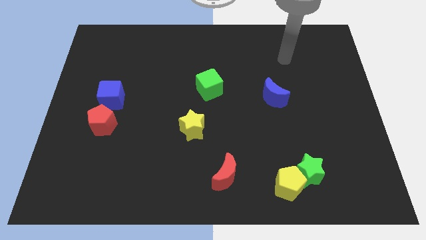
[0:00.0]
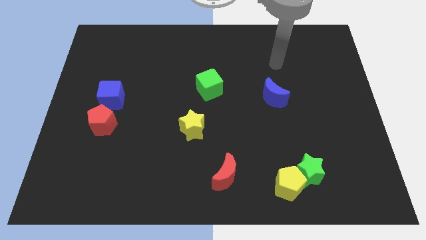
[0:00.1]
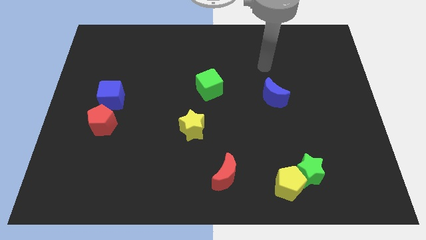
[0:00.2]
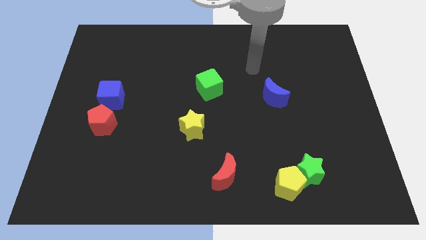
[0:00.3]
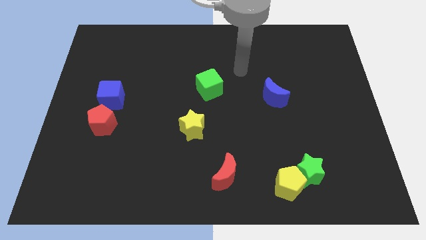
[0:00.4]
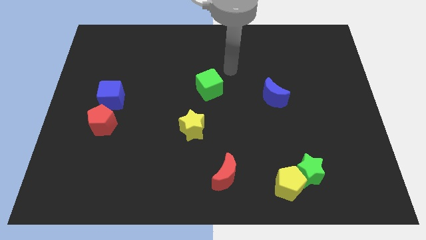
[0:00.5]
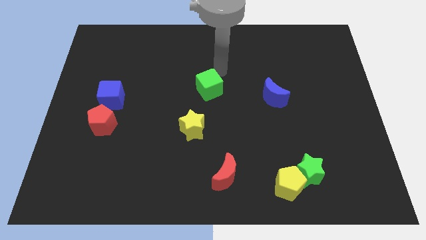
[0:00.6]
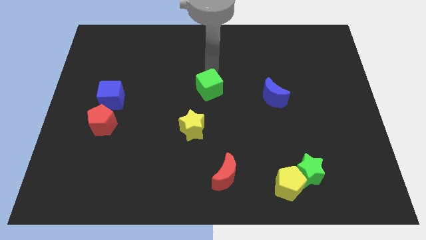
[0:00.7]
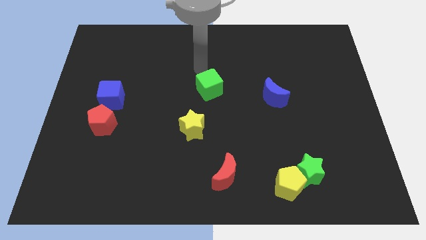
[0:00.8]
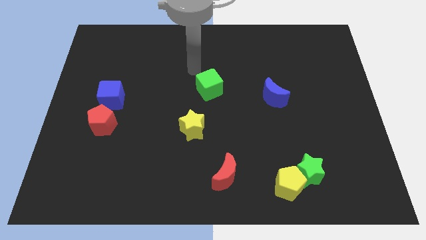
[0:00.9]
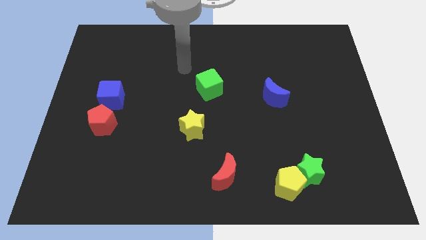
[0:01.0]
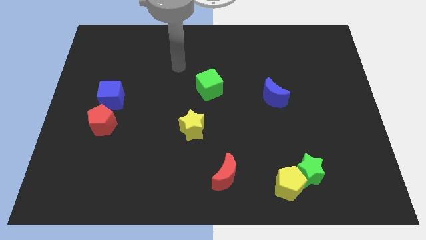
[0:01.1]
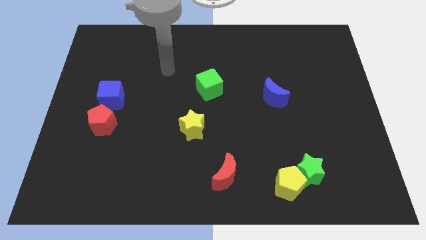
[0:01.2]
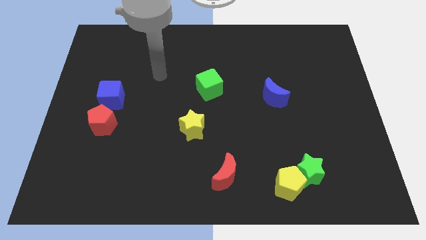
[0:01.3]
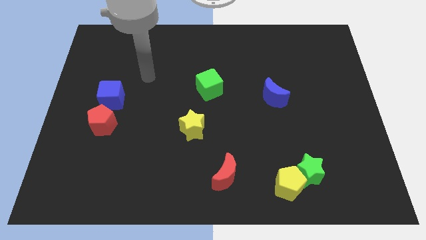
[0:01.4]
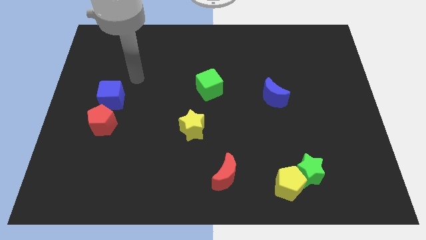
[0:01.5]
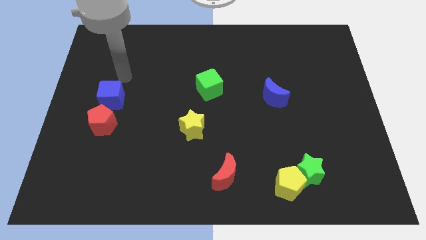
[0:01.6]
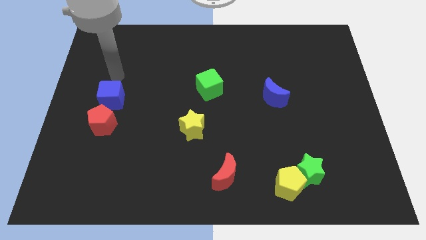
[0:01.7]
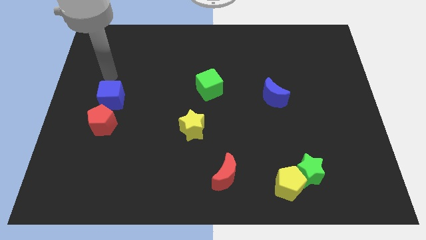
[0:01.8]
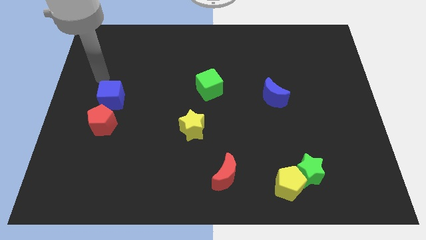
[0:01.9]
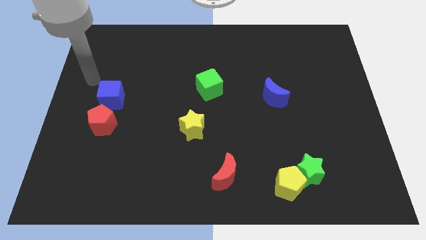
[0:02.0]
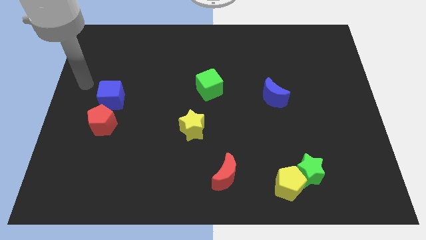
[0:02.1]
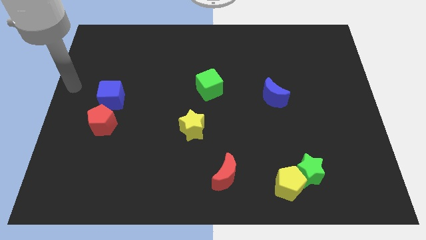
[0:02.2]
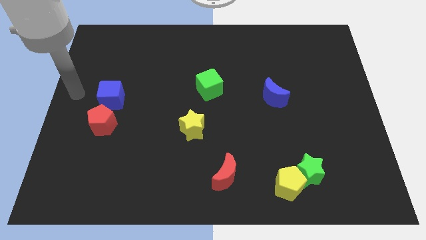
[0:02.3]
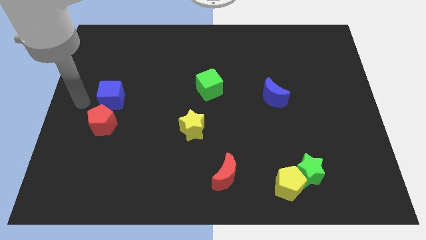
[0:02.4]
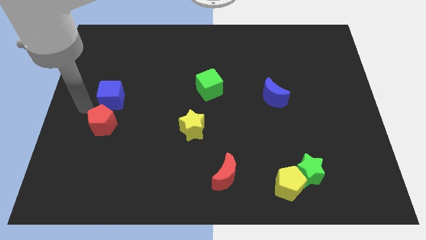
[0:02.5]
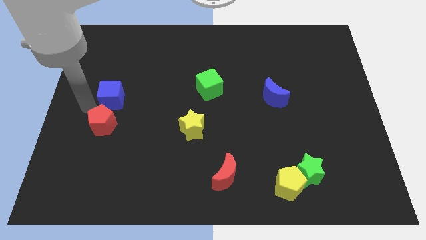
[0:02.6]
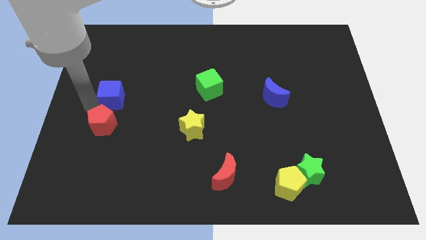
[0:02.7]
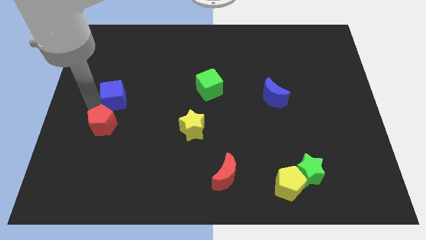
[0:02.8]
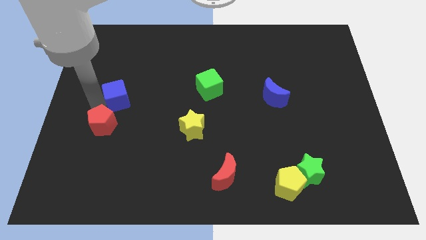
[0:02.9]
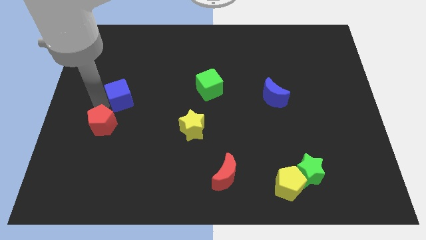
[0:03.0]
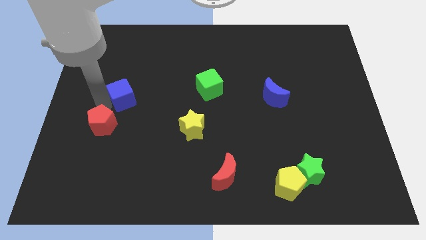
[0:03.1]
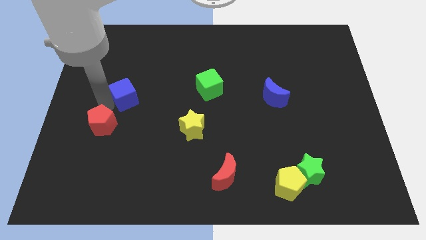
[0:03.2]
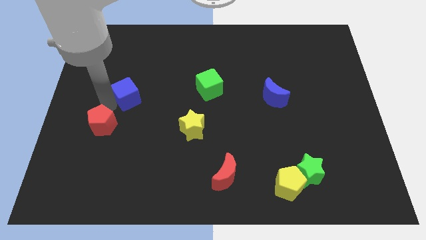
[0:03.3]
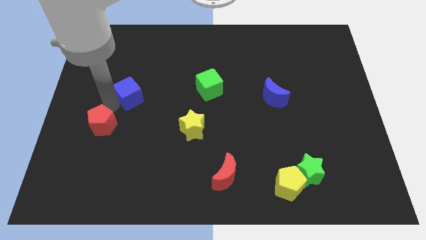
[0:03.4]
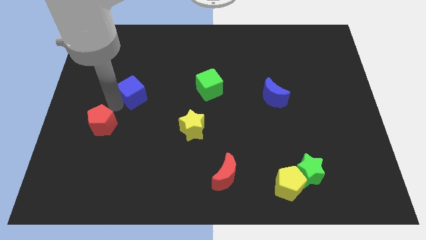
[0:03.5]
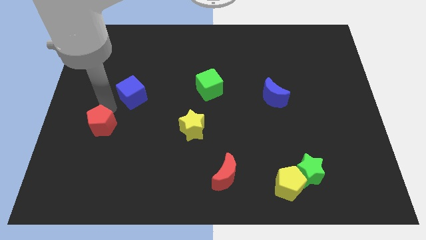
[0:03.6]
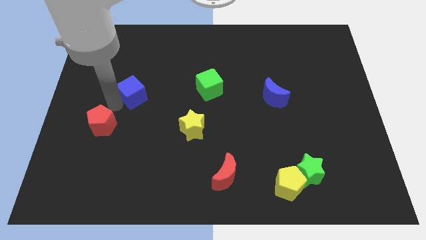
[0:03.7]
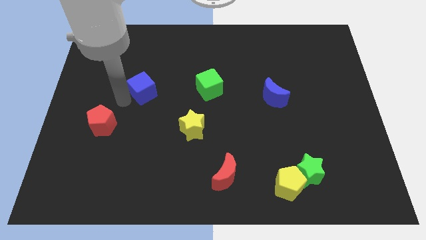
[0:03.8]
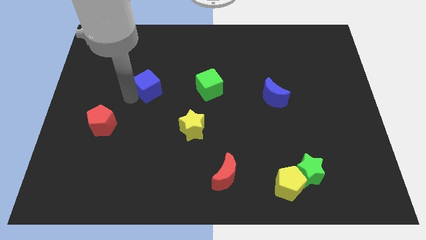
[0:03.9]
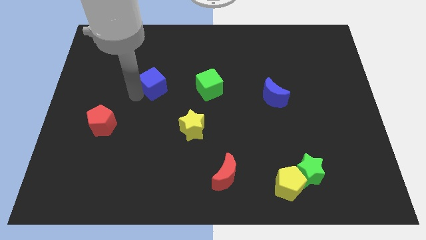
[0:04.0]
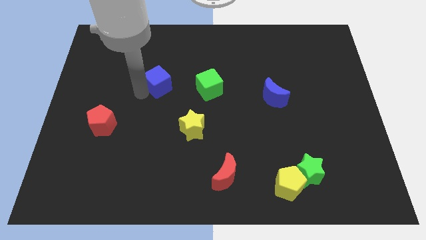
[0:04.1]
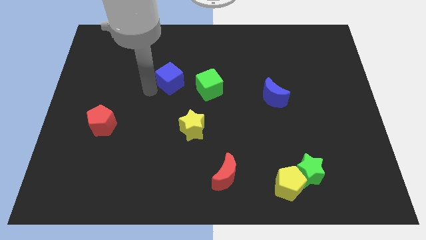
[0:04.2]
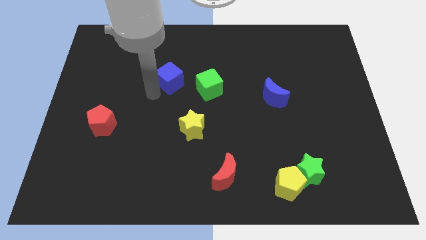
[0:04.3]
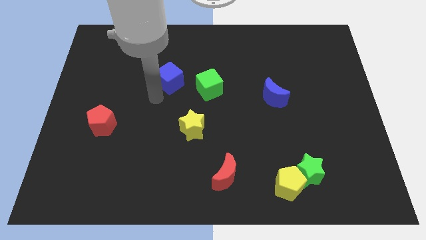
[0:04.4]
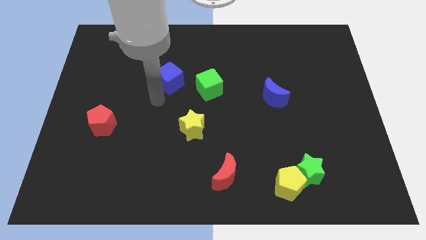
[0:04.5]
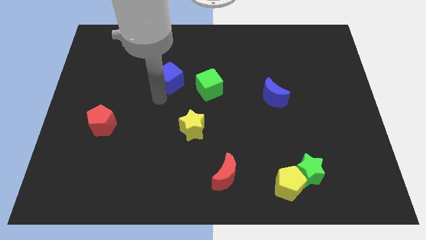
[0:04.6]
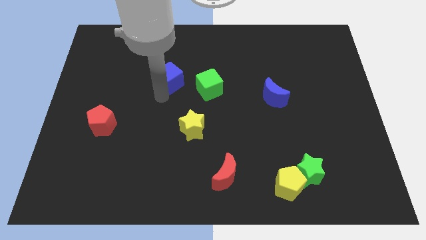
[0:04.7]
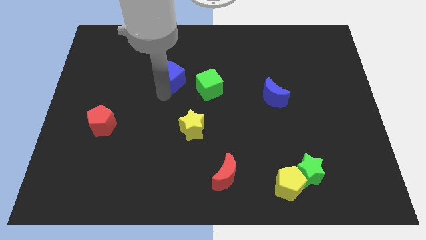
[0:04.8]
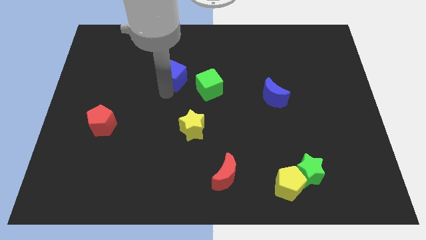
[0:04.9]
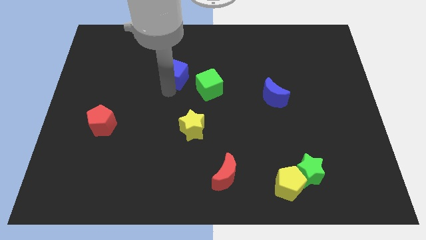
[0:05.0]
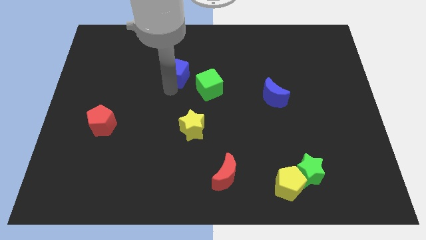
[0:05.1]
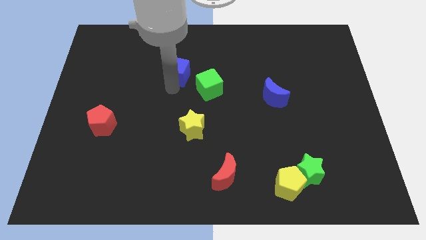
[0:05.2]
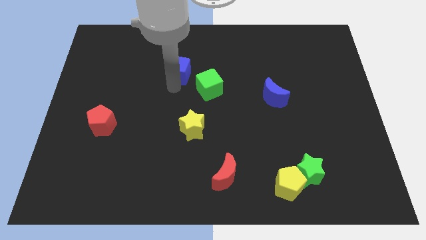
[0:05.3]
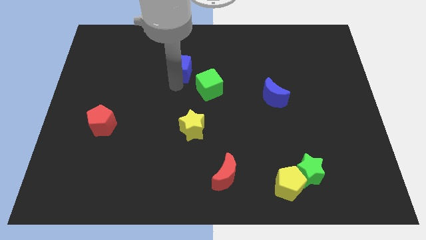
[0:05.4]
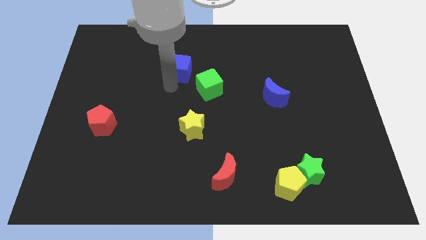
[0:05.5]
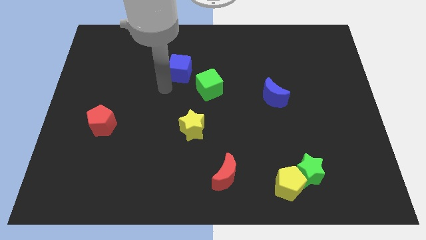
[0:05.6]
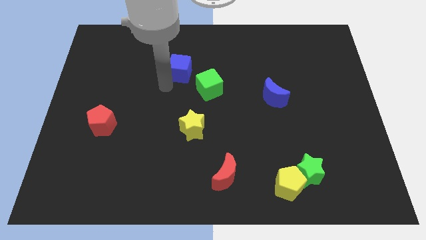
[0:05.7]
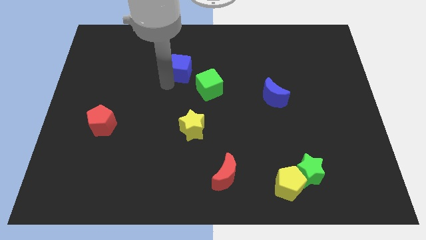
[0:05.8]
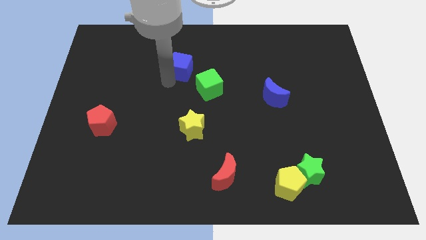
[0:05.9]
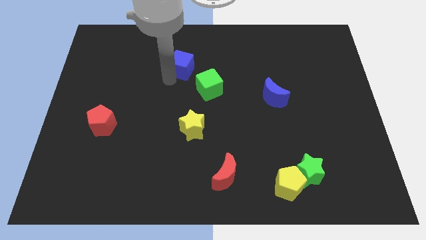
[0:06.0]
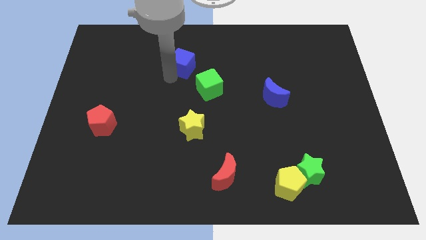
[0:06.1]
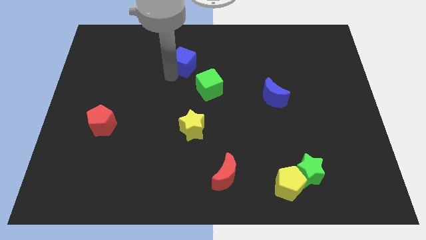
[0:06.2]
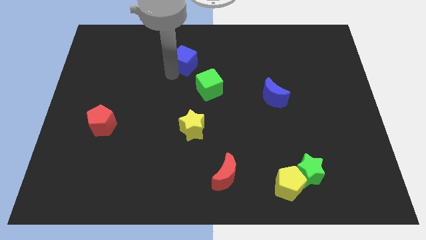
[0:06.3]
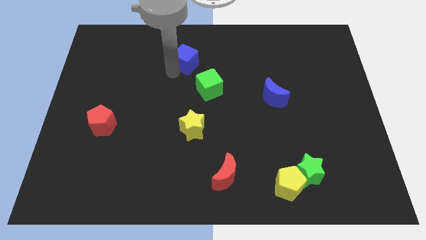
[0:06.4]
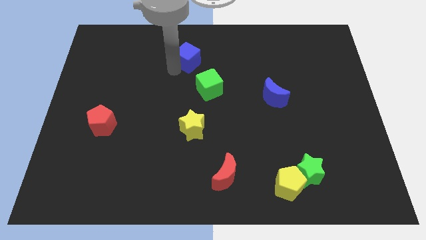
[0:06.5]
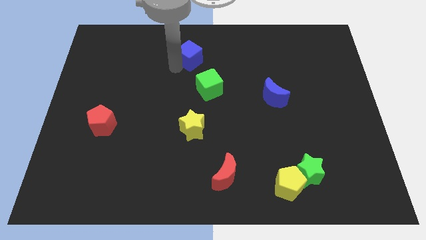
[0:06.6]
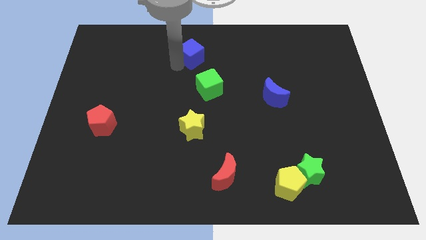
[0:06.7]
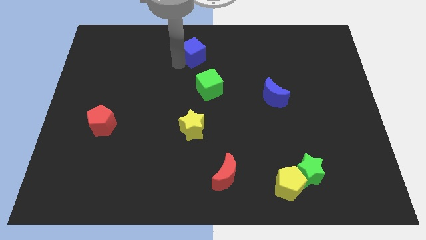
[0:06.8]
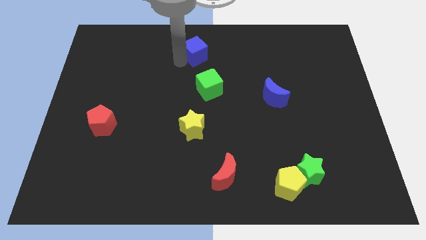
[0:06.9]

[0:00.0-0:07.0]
put the blue cube to the top side

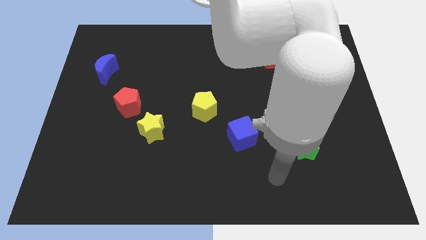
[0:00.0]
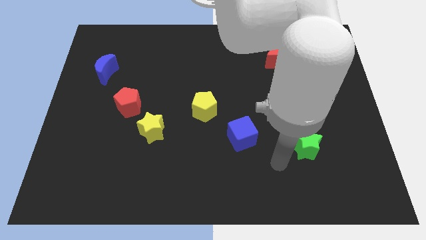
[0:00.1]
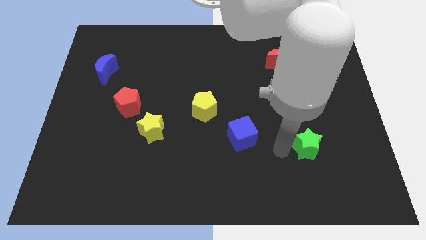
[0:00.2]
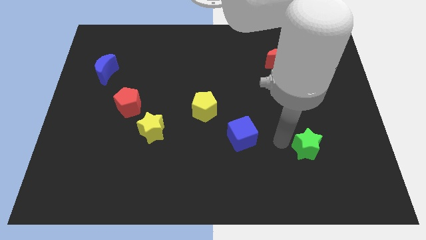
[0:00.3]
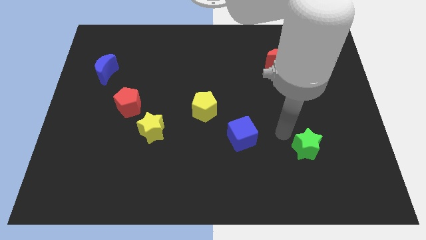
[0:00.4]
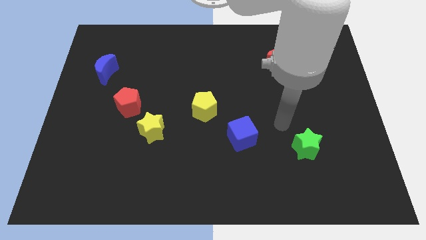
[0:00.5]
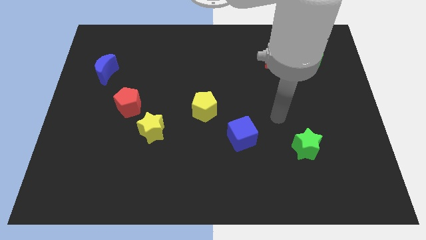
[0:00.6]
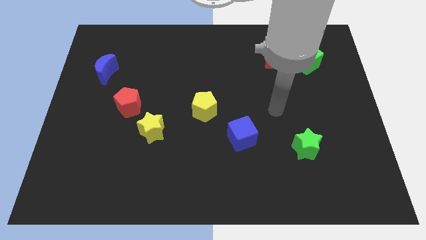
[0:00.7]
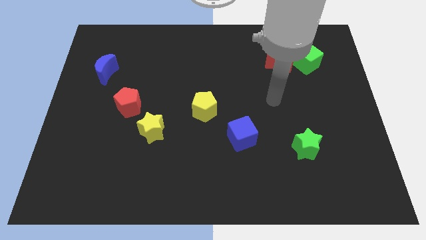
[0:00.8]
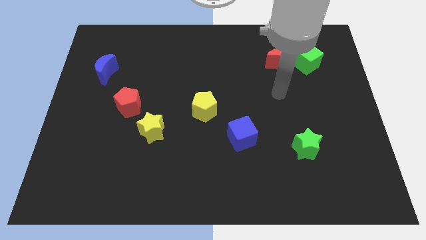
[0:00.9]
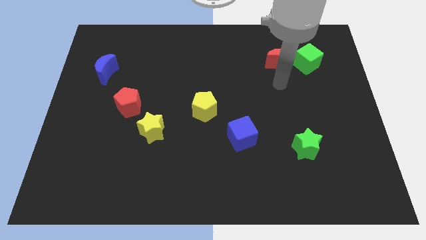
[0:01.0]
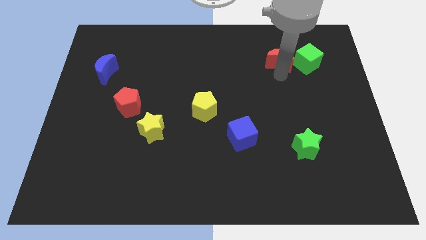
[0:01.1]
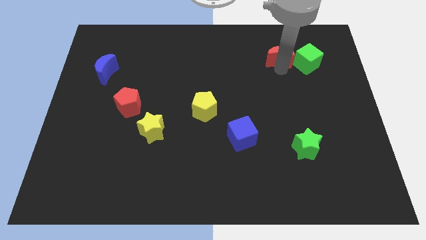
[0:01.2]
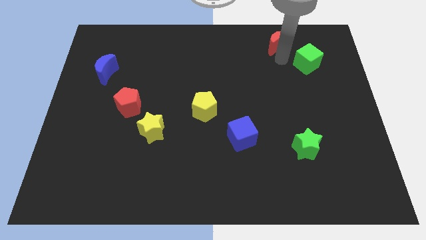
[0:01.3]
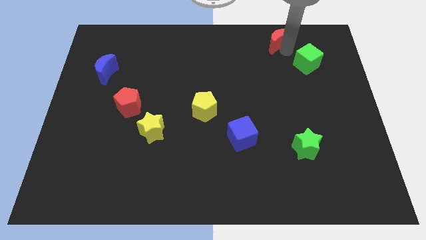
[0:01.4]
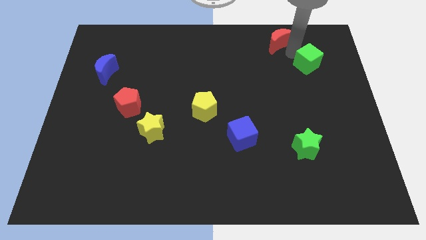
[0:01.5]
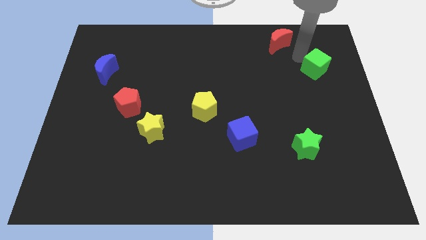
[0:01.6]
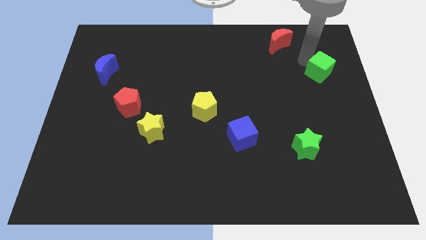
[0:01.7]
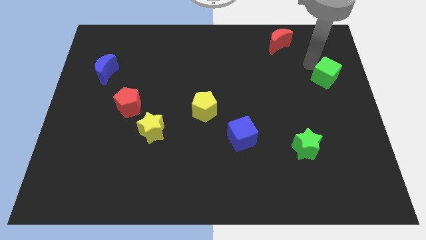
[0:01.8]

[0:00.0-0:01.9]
move the green cube to the center right
